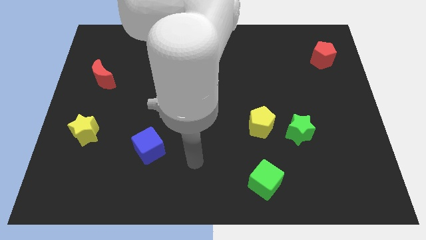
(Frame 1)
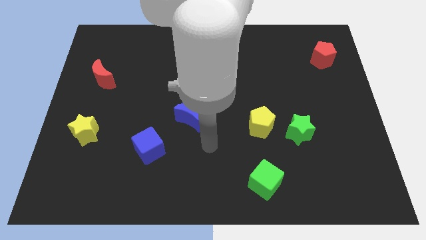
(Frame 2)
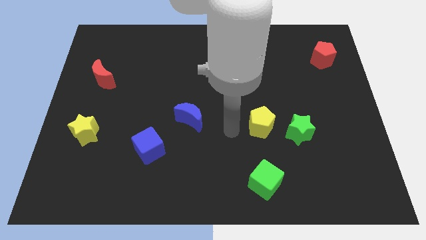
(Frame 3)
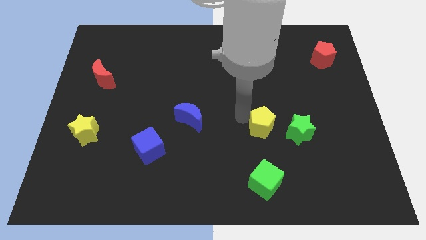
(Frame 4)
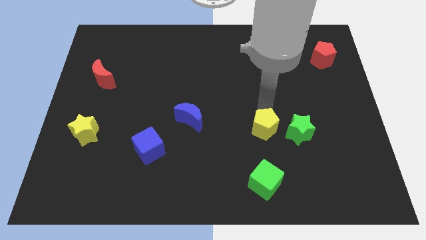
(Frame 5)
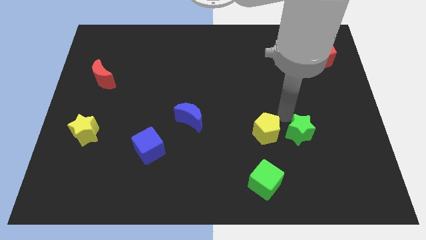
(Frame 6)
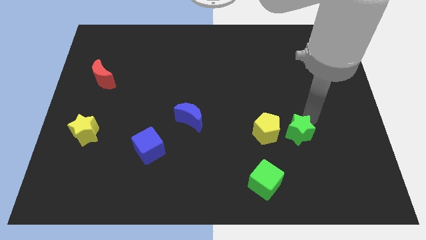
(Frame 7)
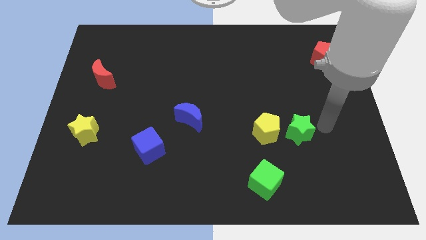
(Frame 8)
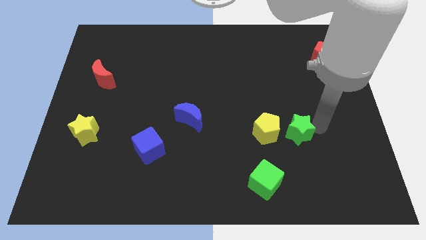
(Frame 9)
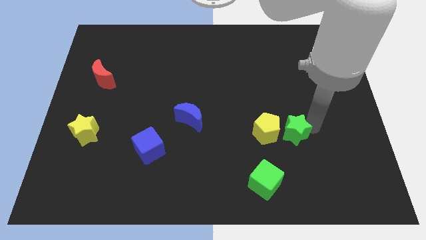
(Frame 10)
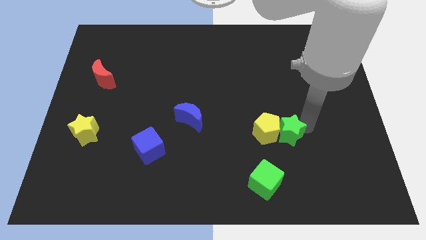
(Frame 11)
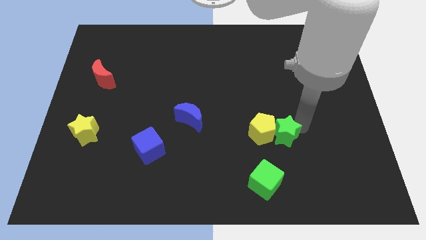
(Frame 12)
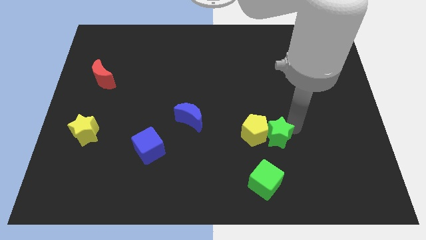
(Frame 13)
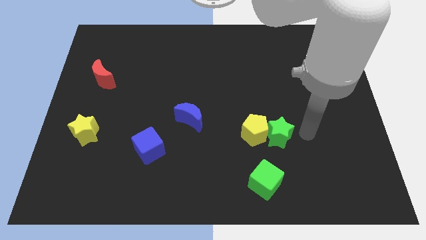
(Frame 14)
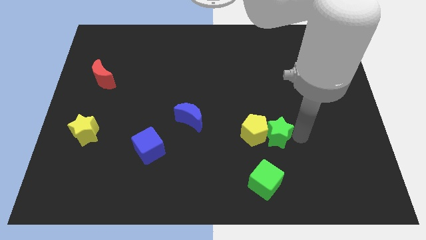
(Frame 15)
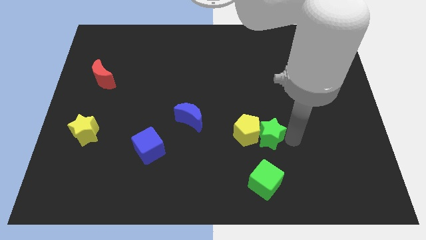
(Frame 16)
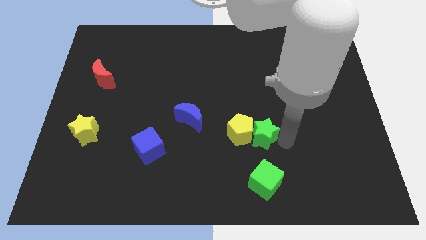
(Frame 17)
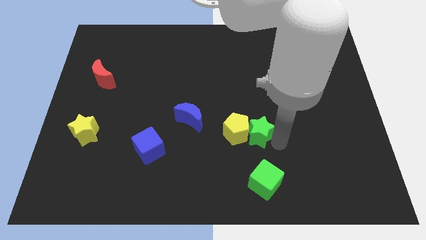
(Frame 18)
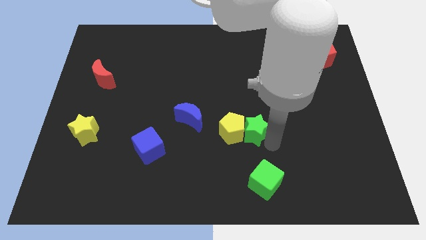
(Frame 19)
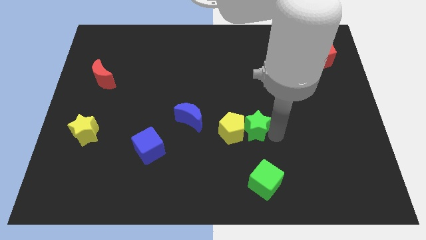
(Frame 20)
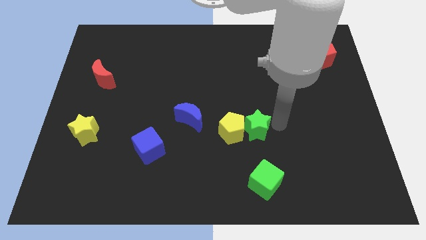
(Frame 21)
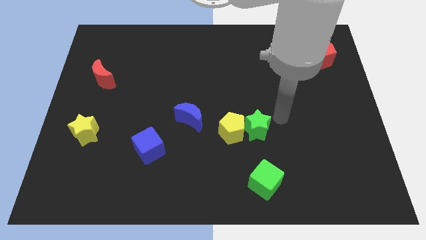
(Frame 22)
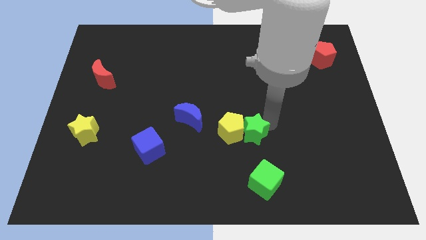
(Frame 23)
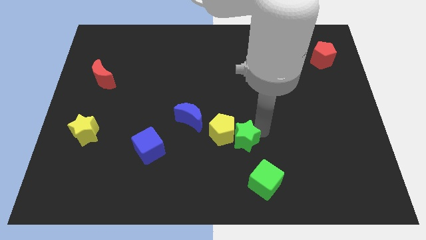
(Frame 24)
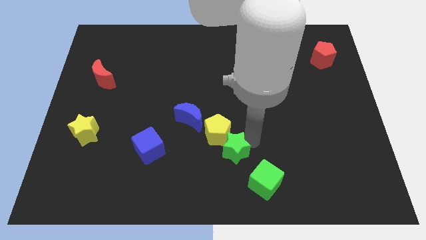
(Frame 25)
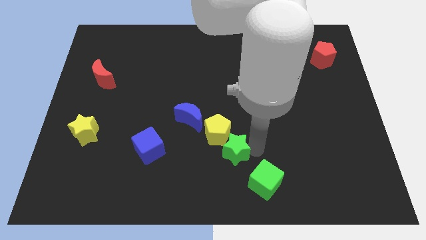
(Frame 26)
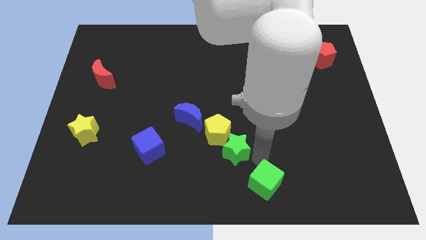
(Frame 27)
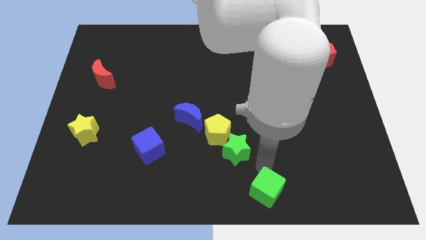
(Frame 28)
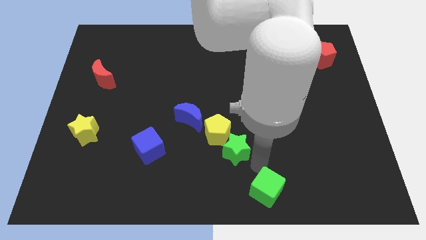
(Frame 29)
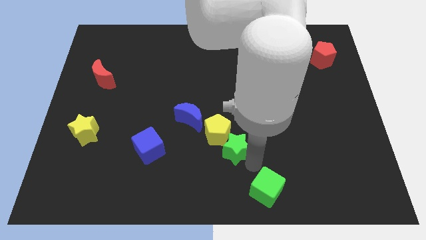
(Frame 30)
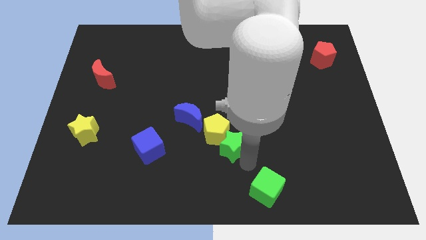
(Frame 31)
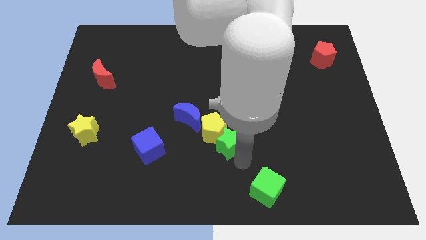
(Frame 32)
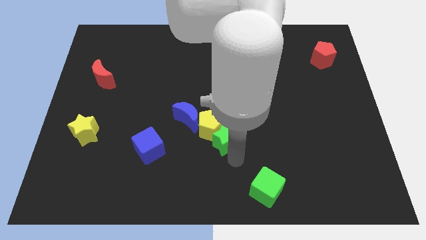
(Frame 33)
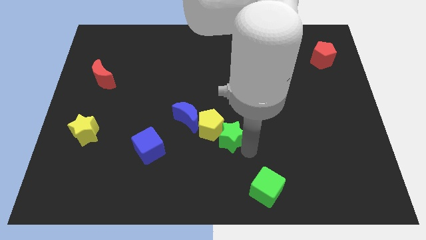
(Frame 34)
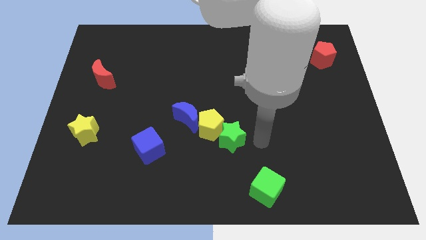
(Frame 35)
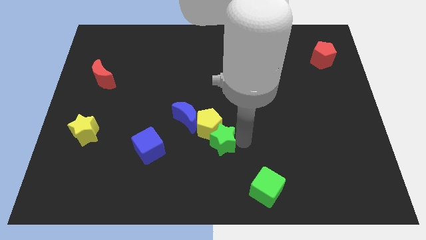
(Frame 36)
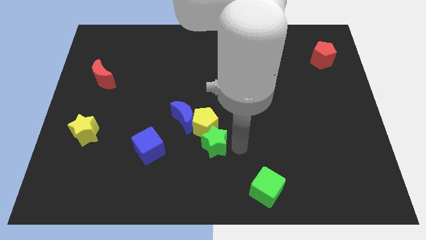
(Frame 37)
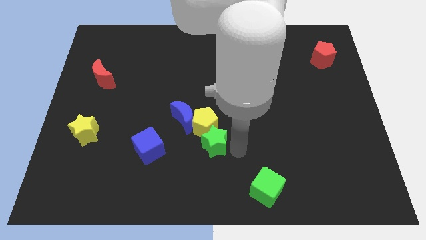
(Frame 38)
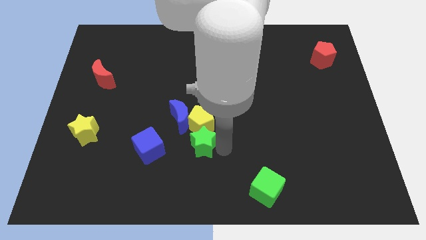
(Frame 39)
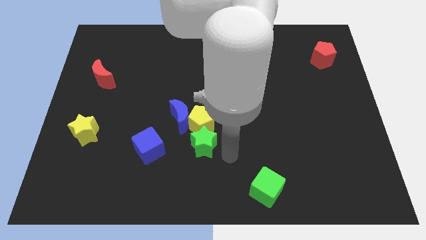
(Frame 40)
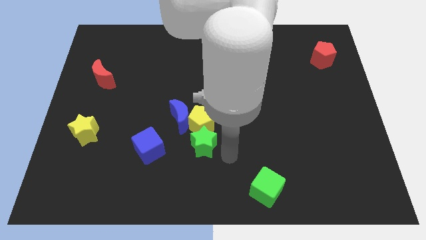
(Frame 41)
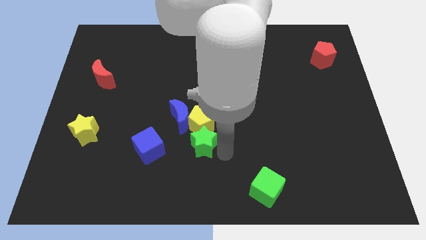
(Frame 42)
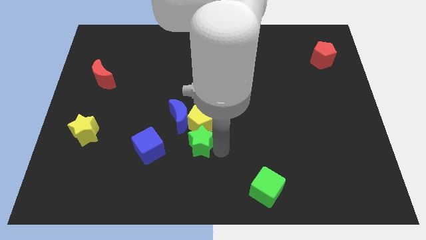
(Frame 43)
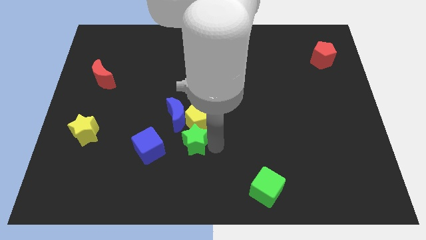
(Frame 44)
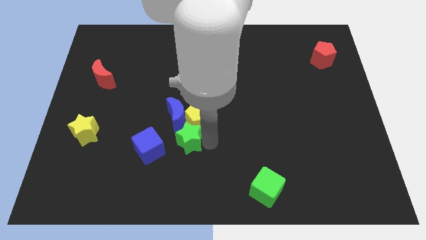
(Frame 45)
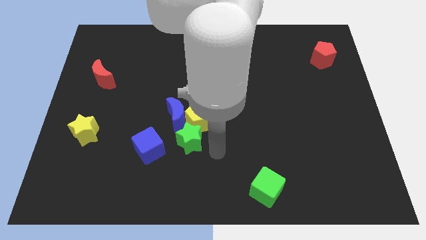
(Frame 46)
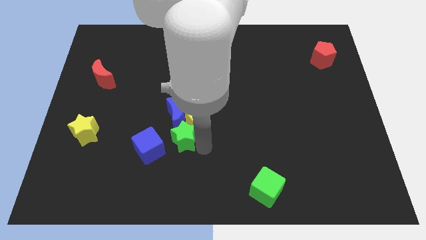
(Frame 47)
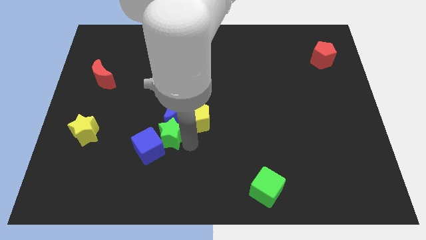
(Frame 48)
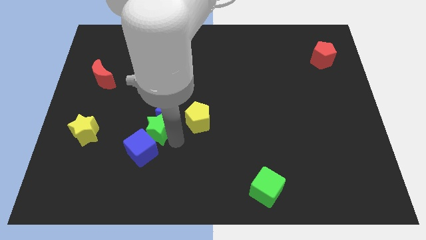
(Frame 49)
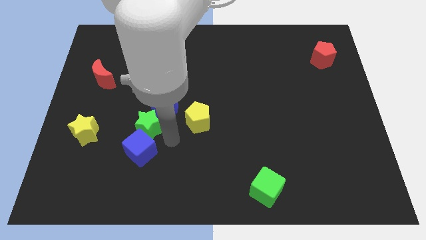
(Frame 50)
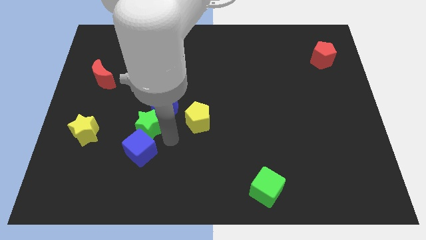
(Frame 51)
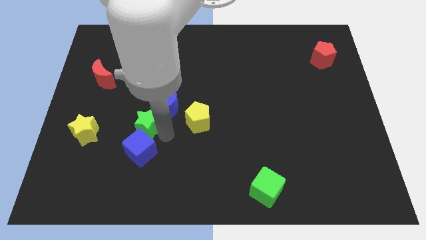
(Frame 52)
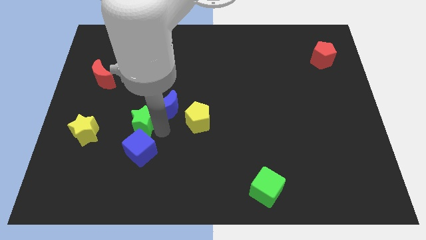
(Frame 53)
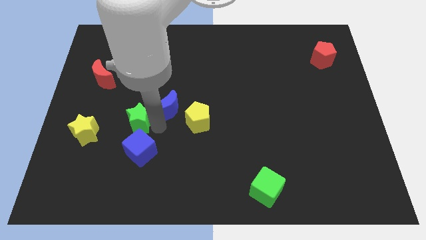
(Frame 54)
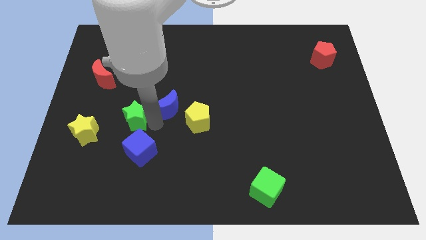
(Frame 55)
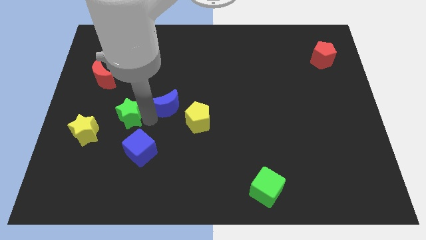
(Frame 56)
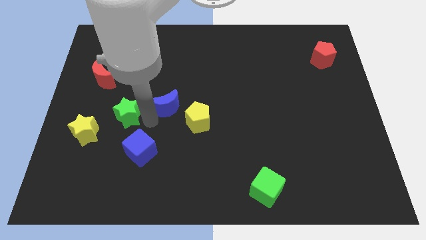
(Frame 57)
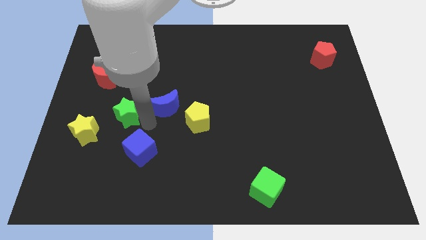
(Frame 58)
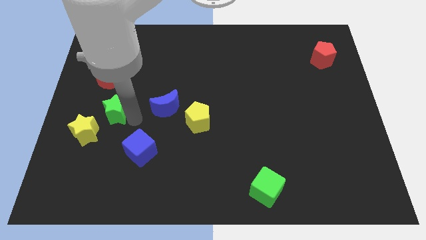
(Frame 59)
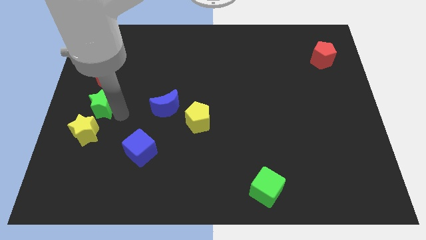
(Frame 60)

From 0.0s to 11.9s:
move the green star to the center left
